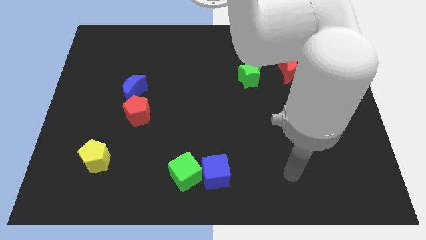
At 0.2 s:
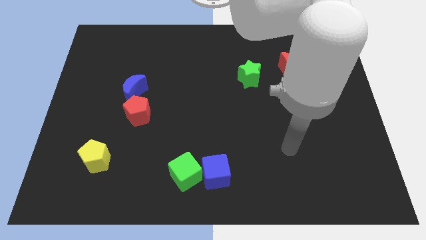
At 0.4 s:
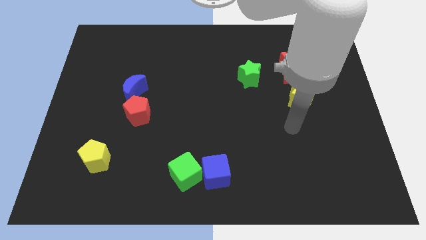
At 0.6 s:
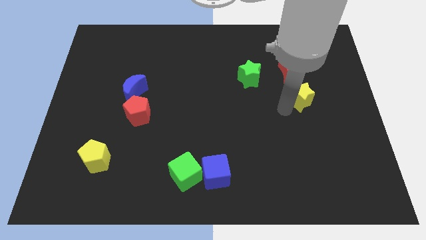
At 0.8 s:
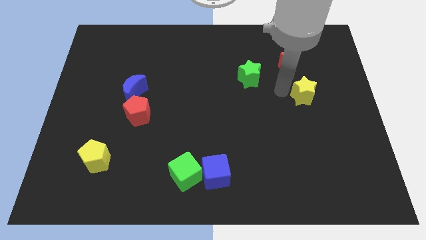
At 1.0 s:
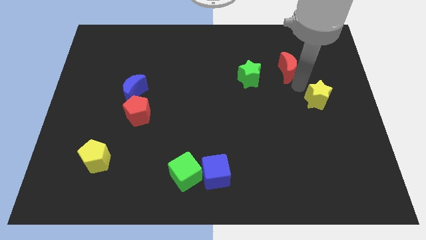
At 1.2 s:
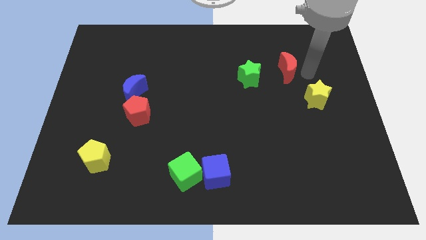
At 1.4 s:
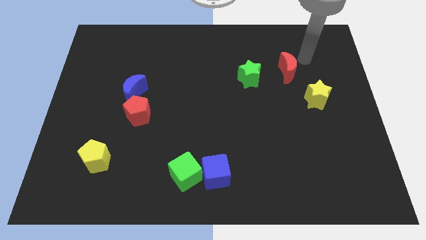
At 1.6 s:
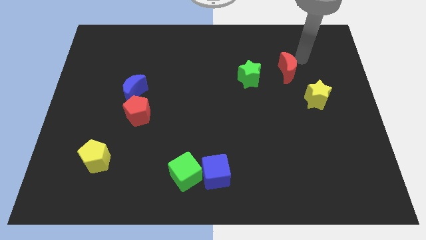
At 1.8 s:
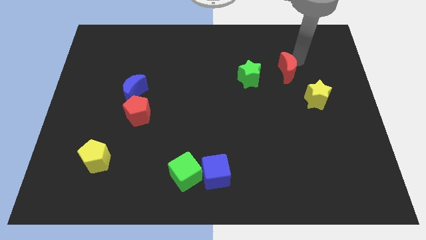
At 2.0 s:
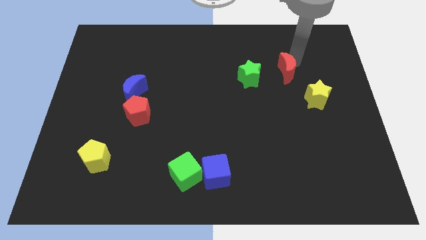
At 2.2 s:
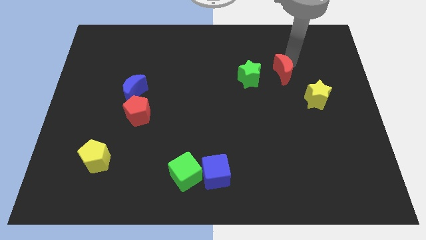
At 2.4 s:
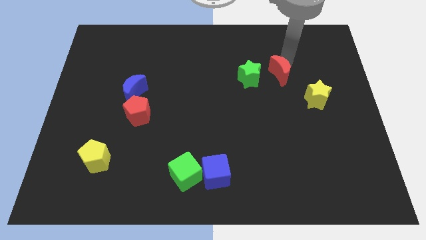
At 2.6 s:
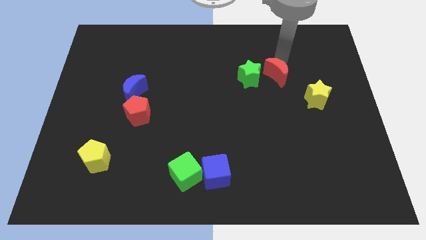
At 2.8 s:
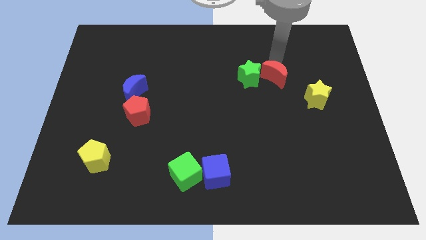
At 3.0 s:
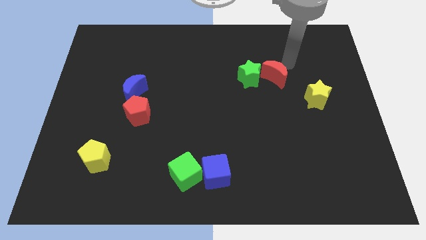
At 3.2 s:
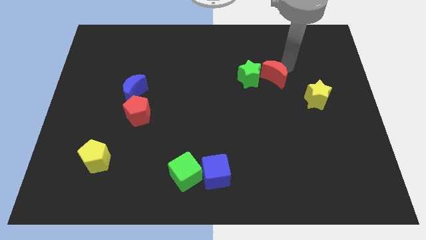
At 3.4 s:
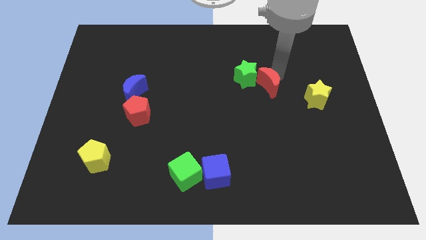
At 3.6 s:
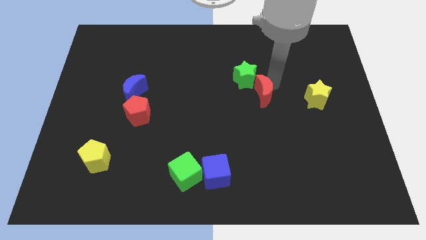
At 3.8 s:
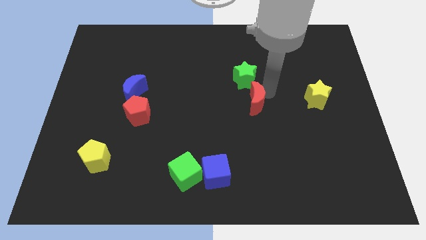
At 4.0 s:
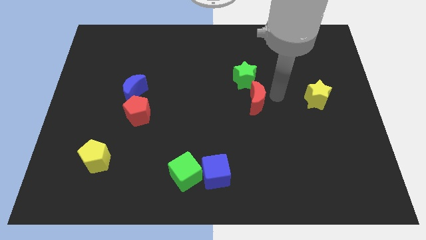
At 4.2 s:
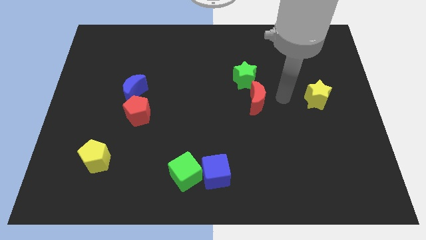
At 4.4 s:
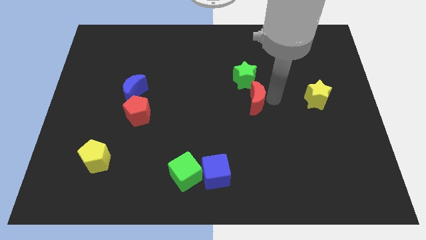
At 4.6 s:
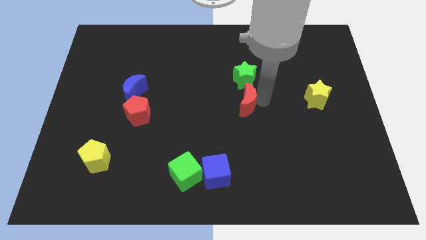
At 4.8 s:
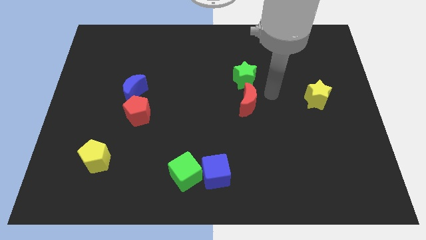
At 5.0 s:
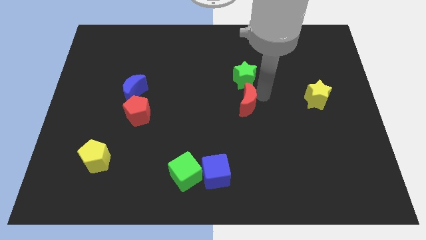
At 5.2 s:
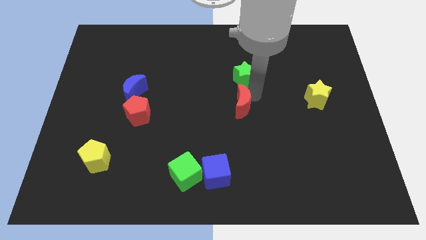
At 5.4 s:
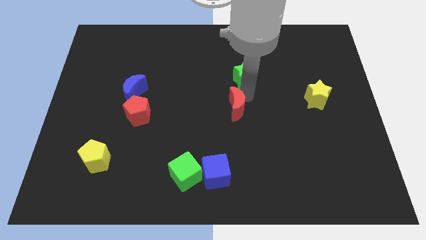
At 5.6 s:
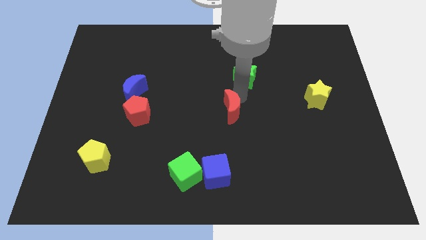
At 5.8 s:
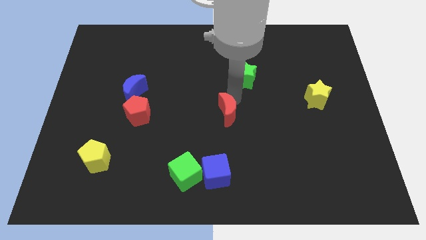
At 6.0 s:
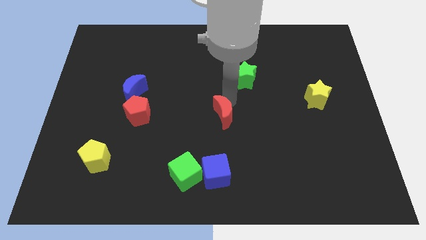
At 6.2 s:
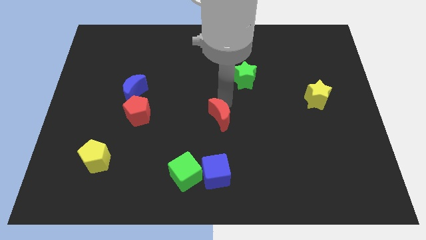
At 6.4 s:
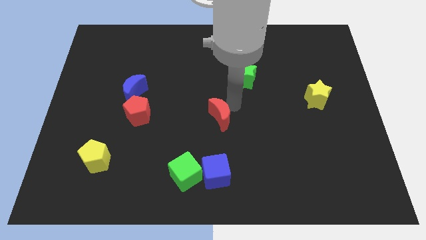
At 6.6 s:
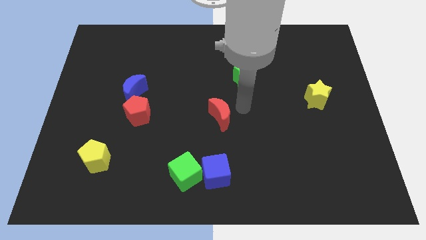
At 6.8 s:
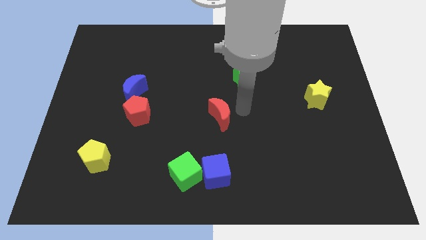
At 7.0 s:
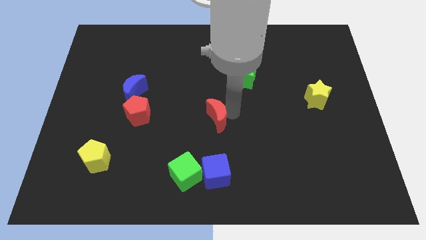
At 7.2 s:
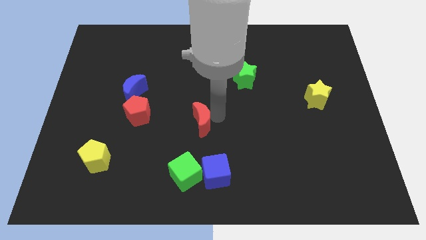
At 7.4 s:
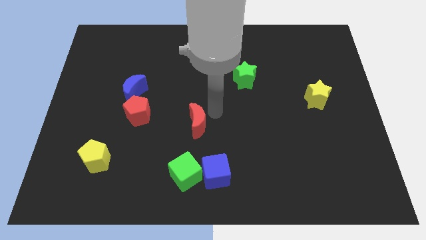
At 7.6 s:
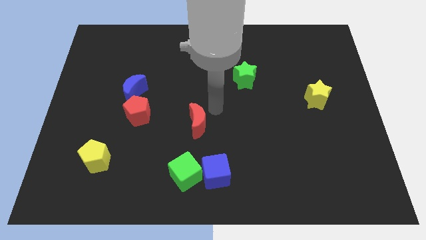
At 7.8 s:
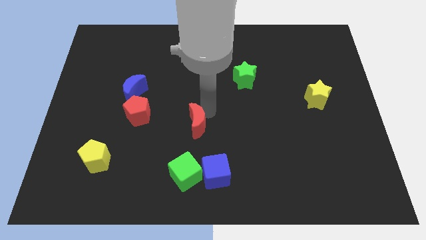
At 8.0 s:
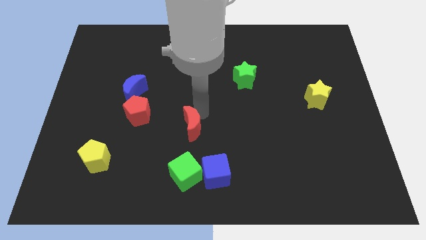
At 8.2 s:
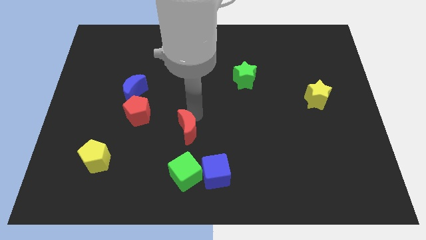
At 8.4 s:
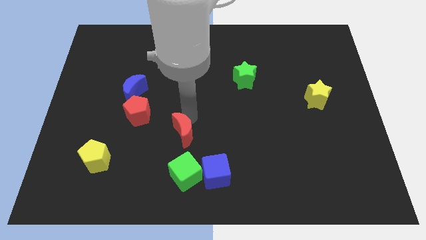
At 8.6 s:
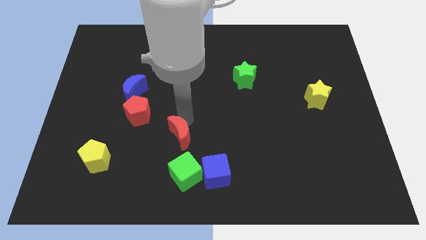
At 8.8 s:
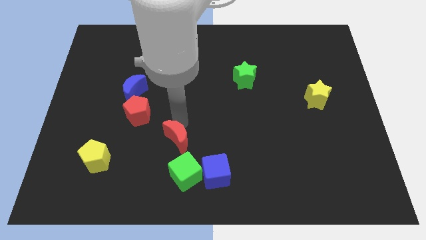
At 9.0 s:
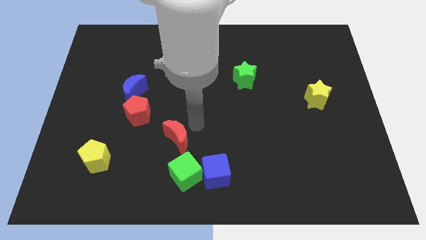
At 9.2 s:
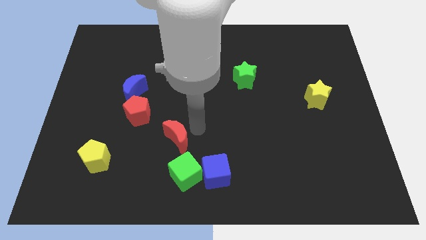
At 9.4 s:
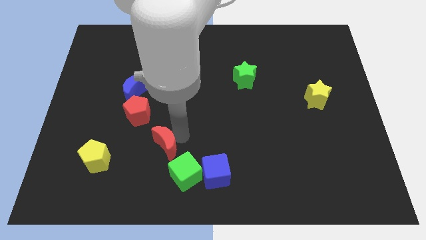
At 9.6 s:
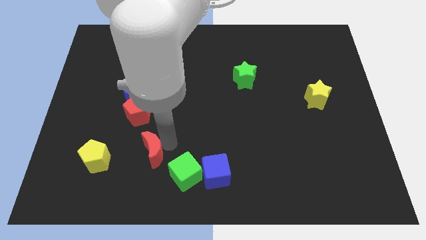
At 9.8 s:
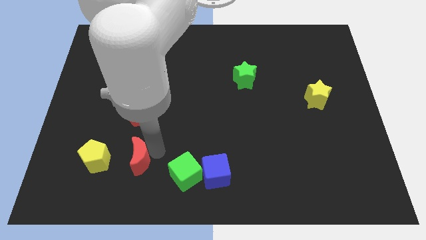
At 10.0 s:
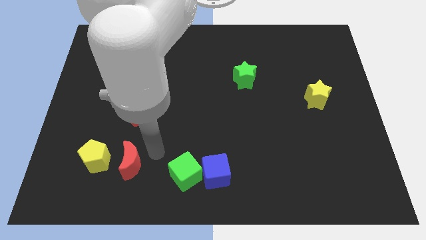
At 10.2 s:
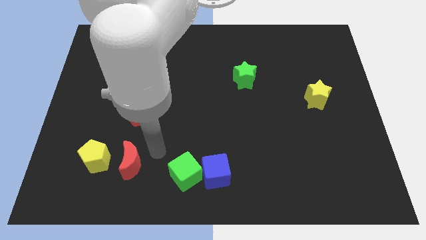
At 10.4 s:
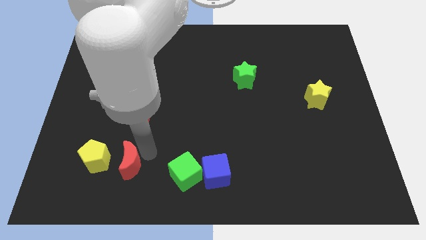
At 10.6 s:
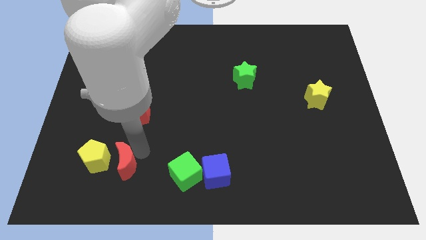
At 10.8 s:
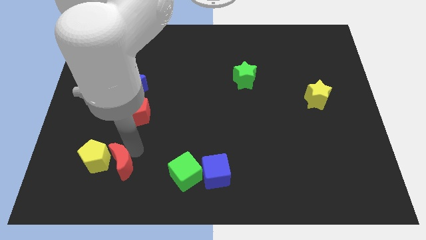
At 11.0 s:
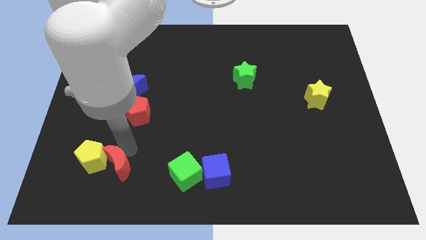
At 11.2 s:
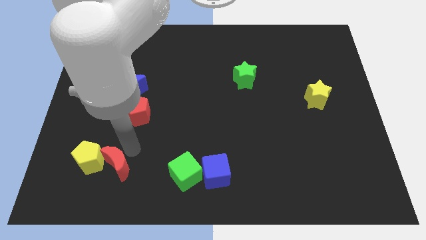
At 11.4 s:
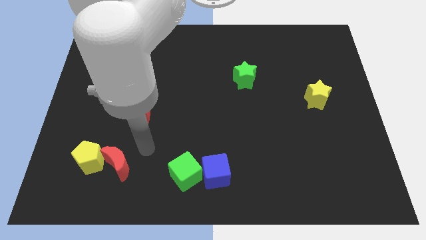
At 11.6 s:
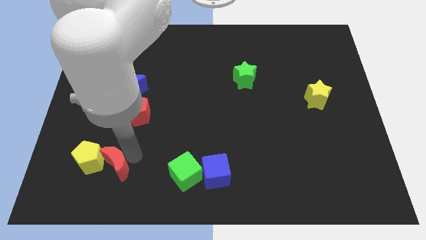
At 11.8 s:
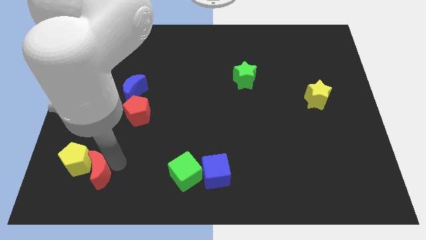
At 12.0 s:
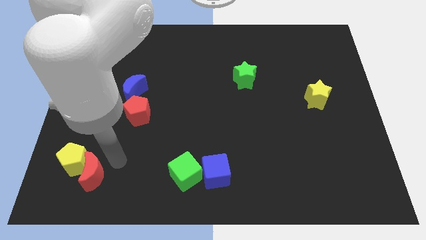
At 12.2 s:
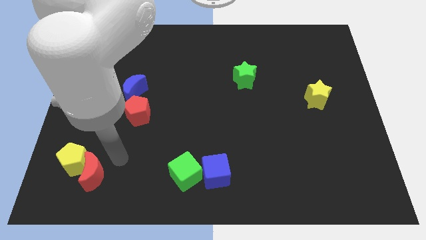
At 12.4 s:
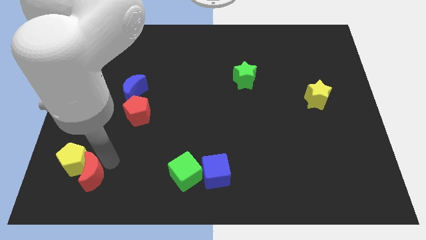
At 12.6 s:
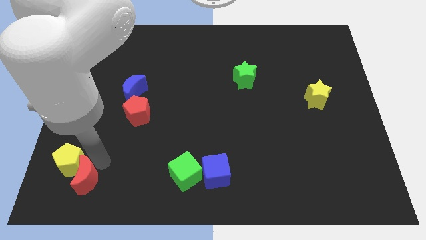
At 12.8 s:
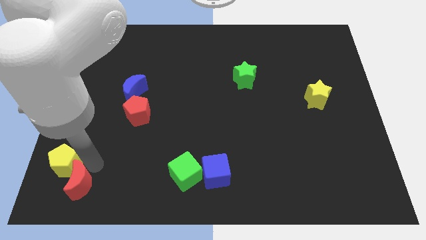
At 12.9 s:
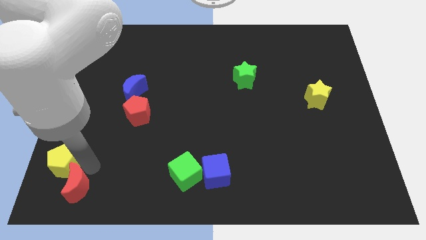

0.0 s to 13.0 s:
slide the red moon to the lower left corner
